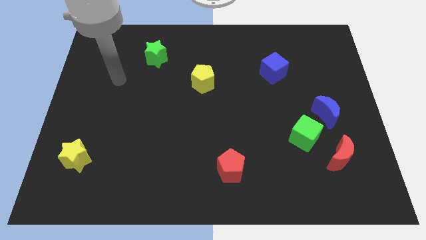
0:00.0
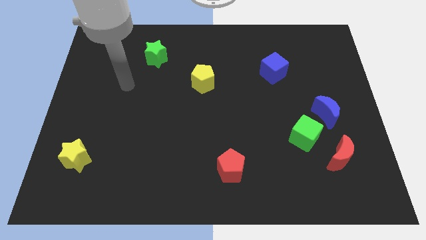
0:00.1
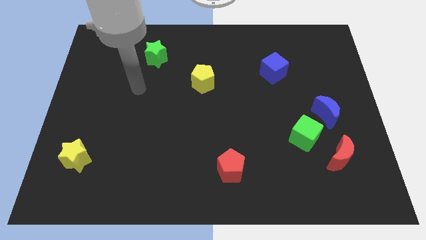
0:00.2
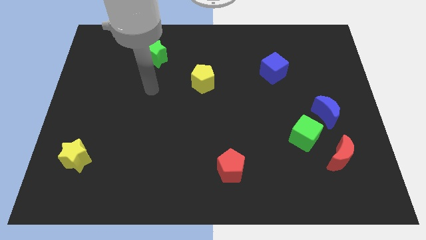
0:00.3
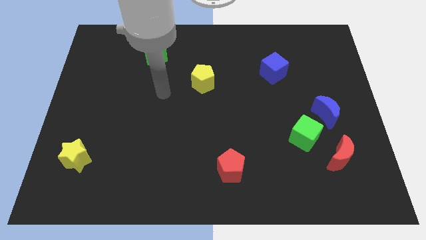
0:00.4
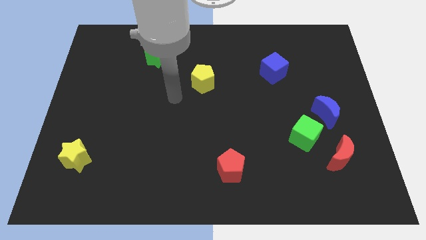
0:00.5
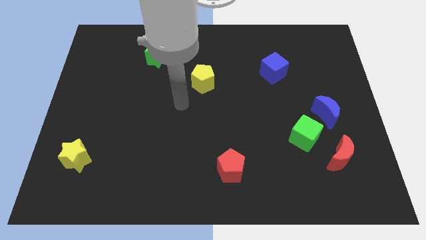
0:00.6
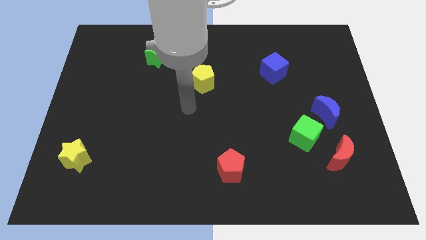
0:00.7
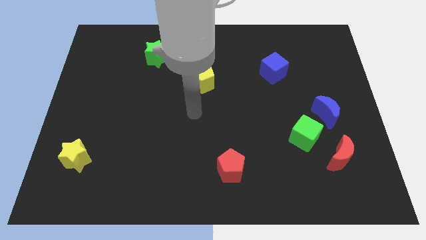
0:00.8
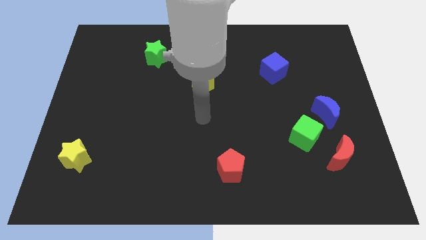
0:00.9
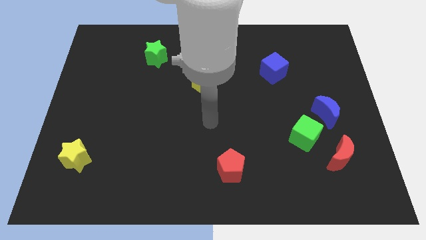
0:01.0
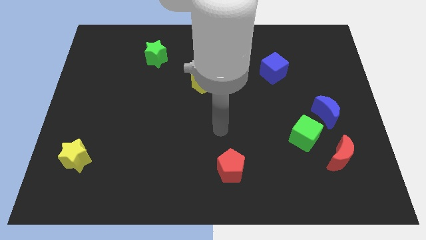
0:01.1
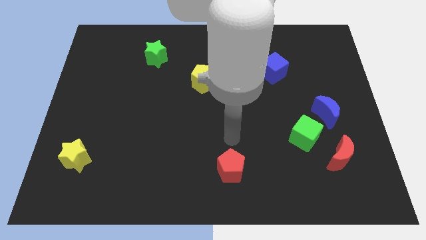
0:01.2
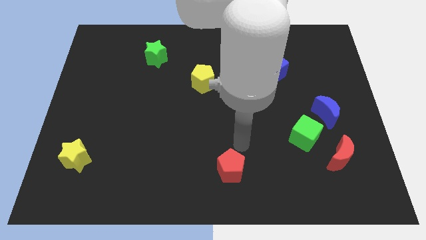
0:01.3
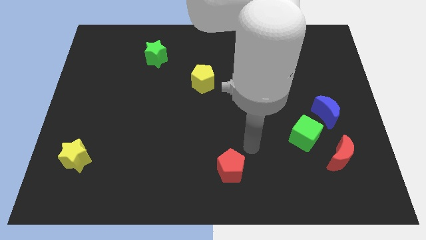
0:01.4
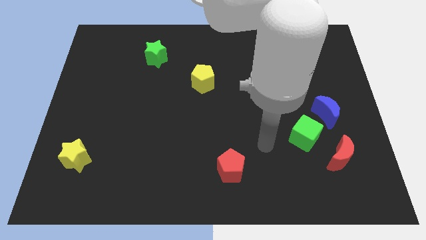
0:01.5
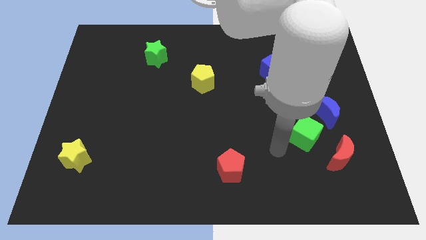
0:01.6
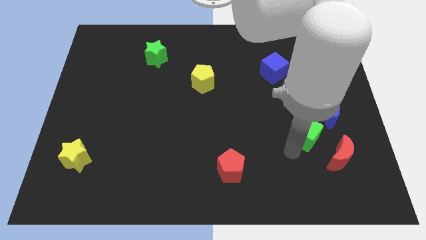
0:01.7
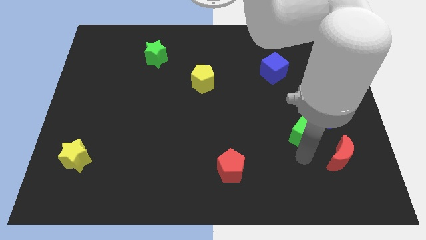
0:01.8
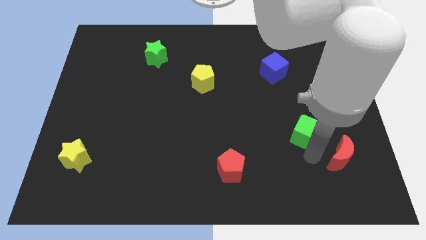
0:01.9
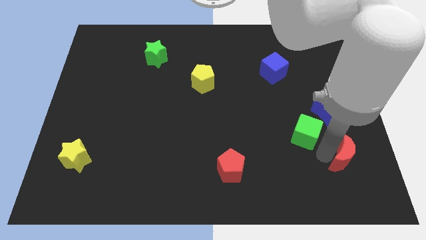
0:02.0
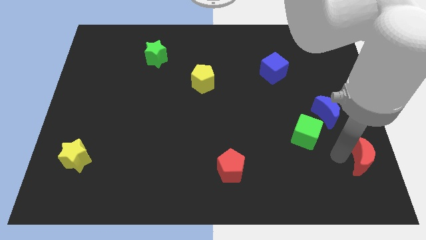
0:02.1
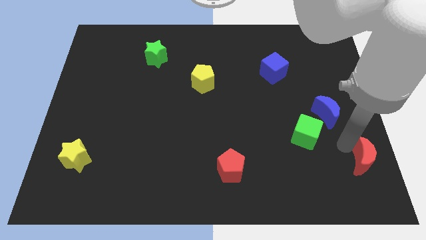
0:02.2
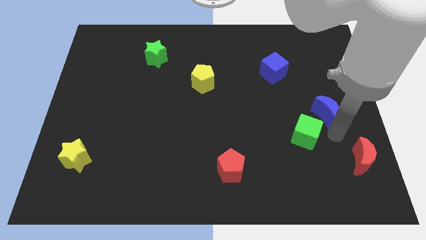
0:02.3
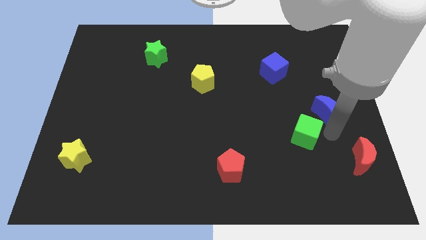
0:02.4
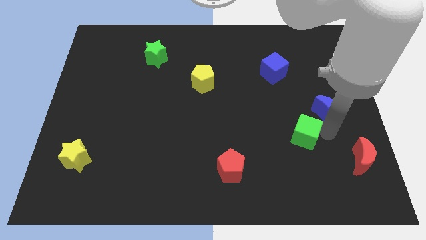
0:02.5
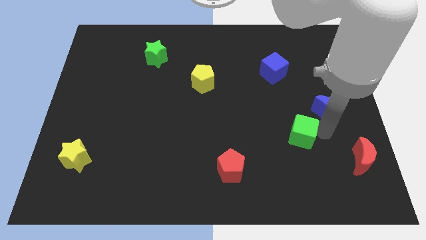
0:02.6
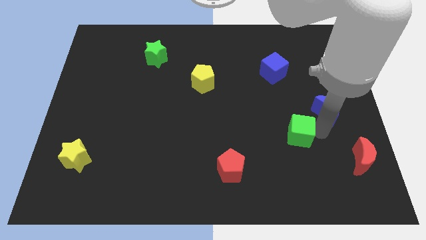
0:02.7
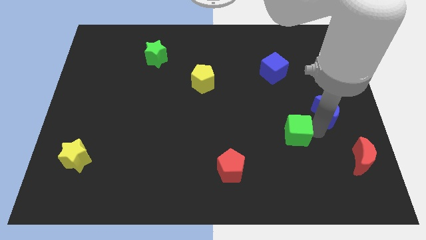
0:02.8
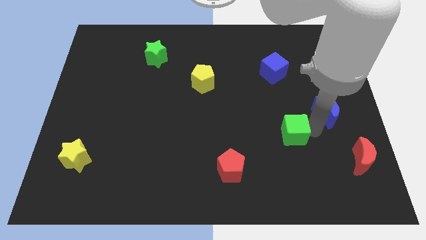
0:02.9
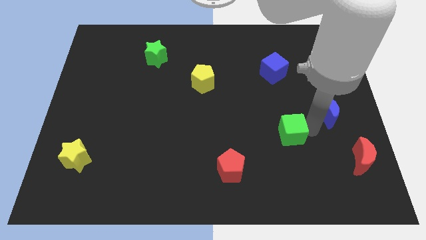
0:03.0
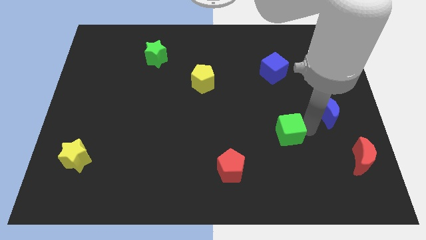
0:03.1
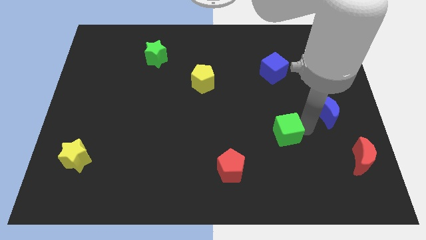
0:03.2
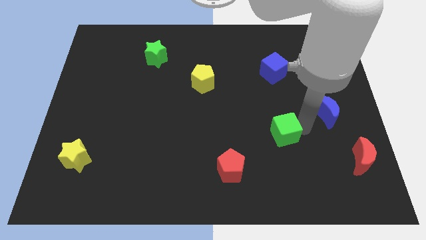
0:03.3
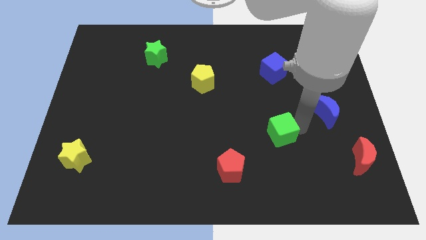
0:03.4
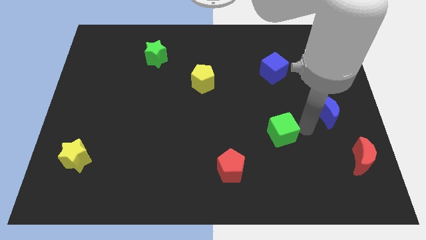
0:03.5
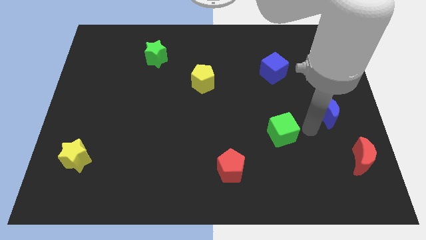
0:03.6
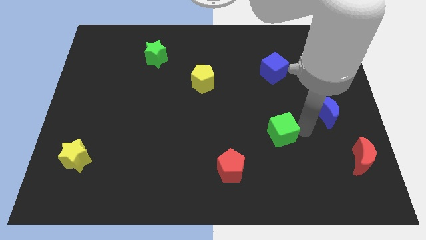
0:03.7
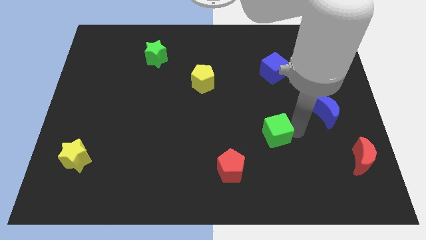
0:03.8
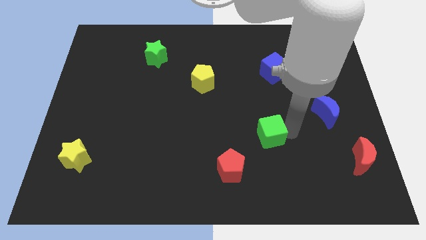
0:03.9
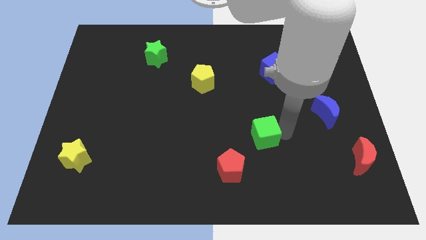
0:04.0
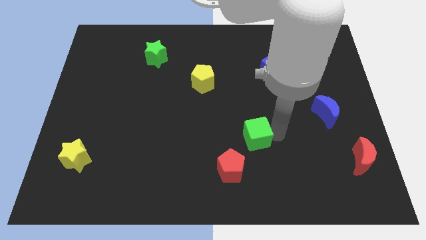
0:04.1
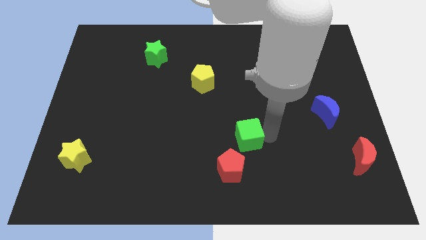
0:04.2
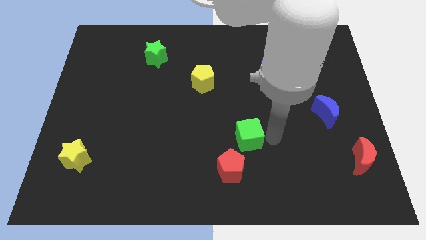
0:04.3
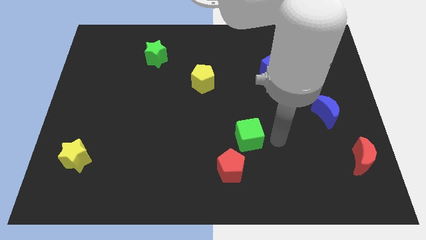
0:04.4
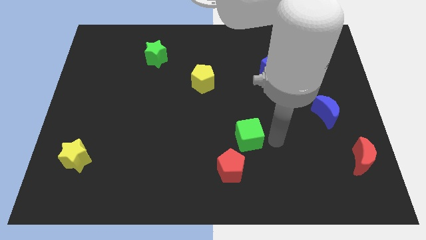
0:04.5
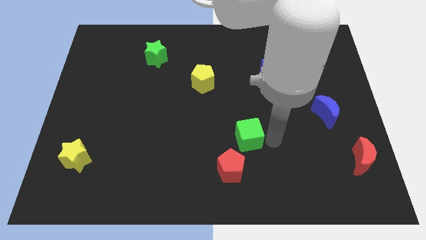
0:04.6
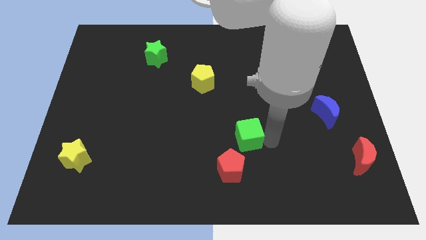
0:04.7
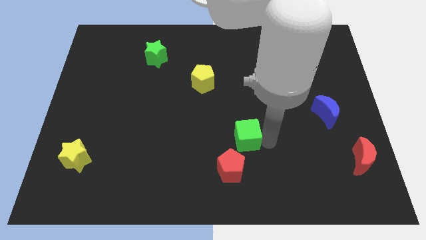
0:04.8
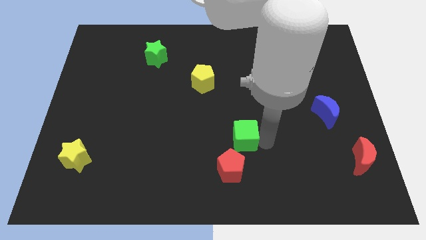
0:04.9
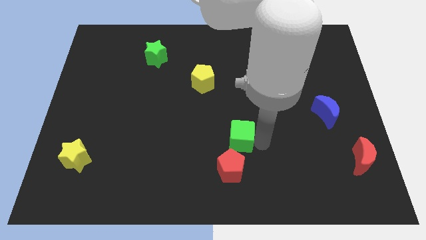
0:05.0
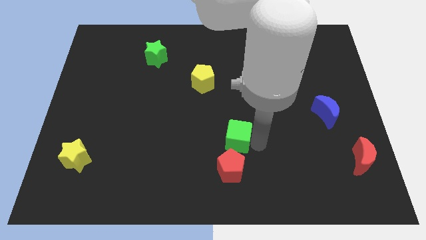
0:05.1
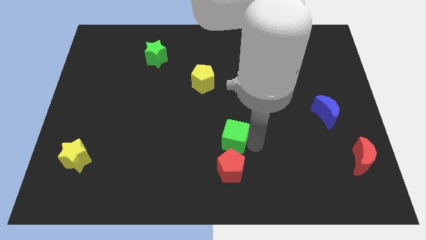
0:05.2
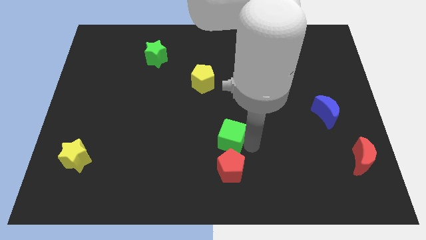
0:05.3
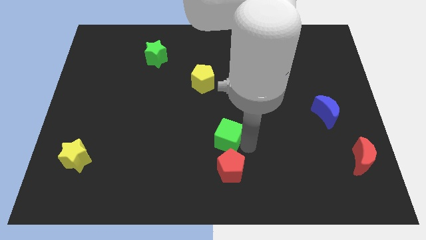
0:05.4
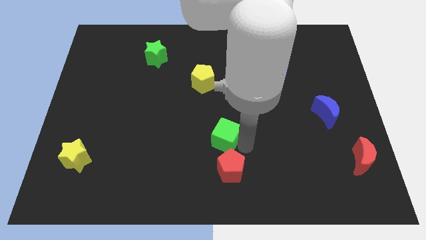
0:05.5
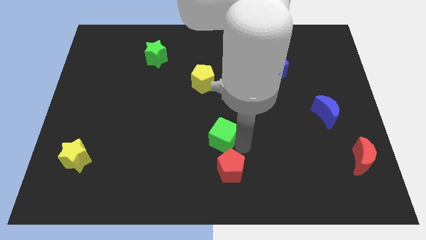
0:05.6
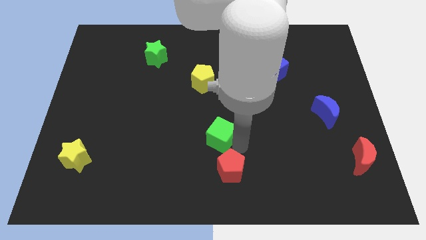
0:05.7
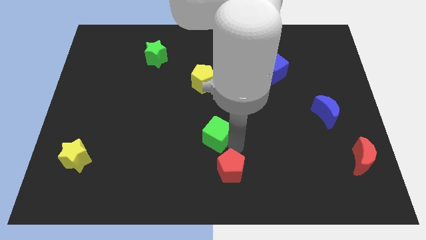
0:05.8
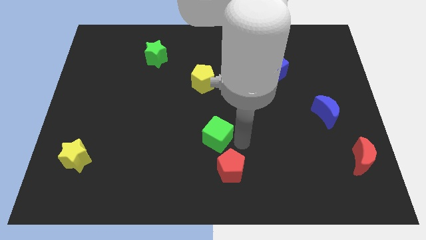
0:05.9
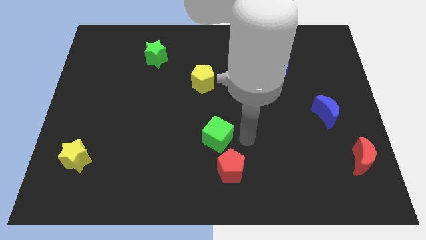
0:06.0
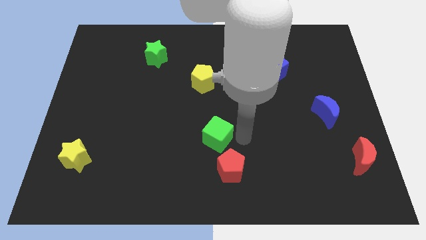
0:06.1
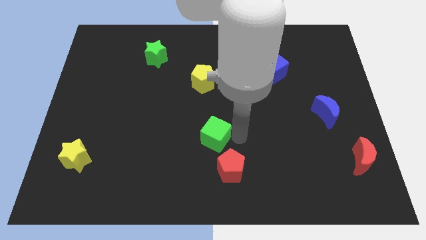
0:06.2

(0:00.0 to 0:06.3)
move the green cube to the left

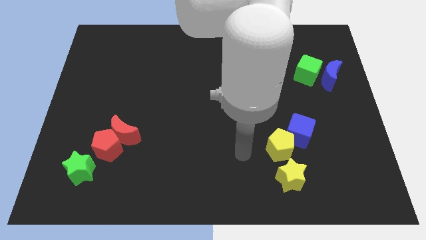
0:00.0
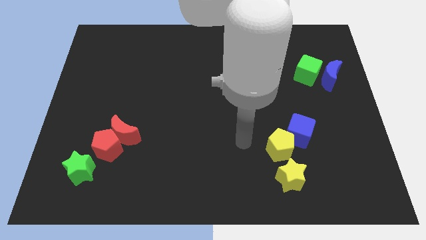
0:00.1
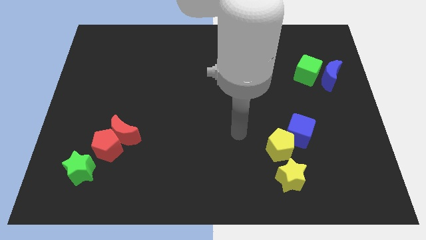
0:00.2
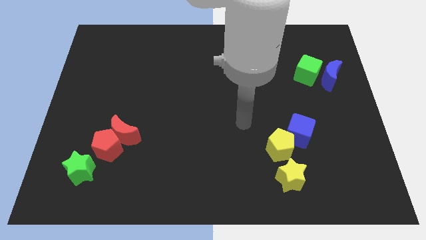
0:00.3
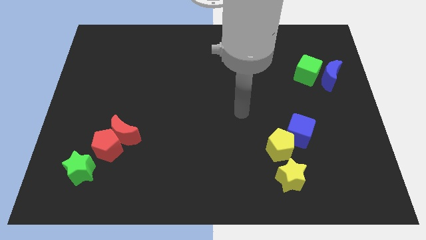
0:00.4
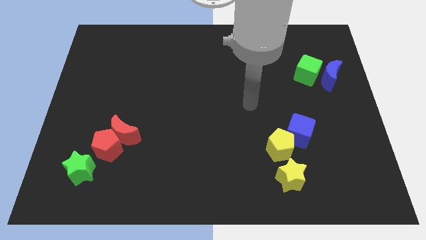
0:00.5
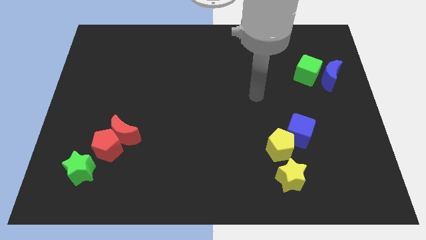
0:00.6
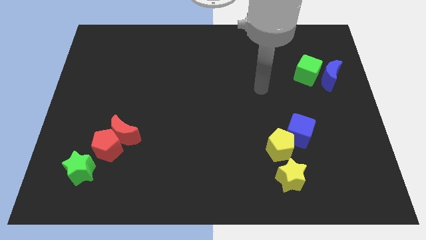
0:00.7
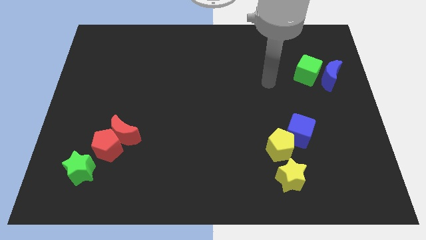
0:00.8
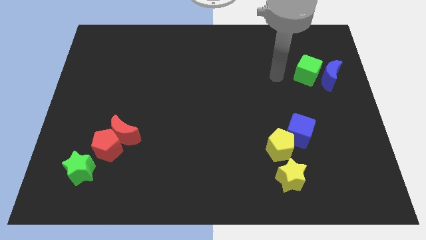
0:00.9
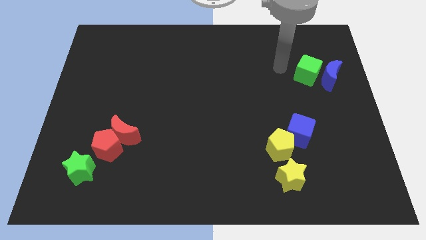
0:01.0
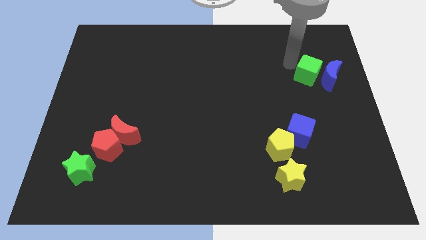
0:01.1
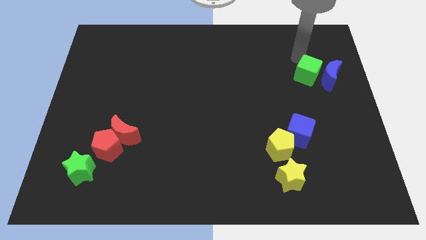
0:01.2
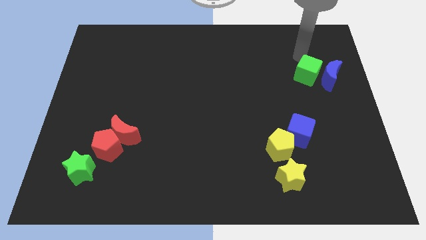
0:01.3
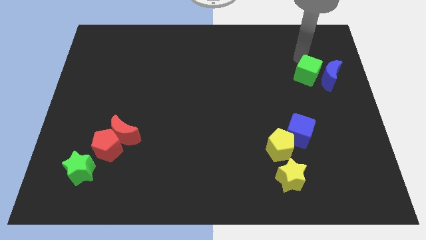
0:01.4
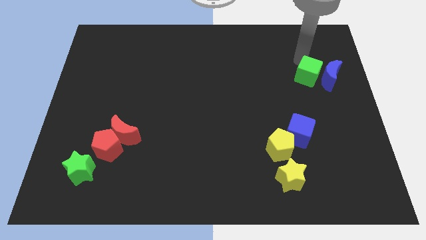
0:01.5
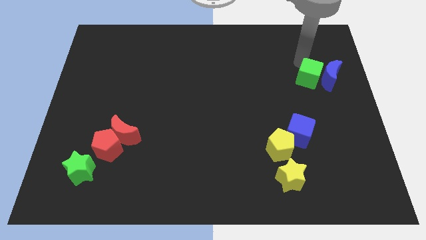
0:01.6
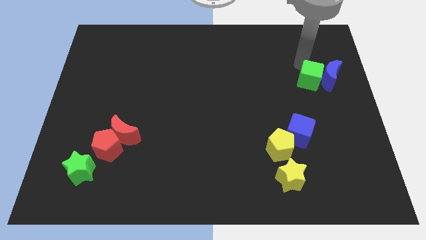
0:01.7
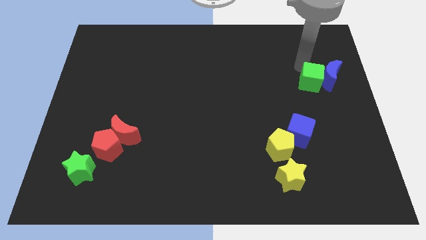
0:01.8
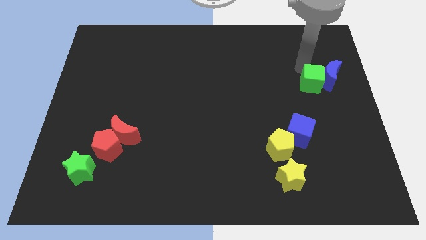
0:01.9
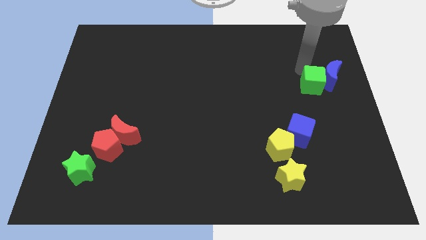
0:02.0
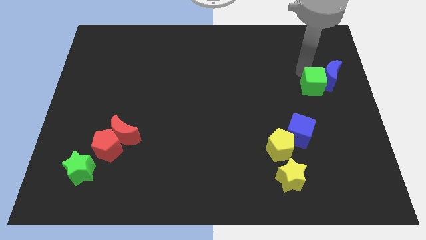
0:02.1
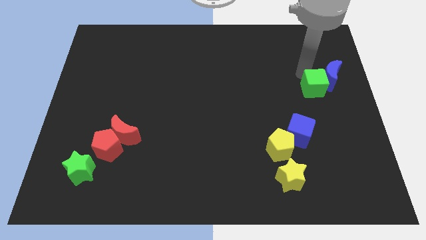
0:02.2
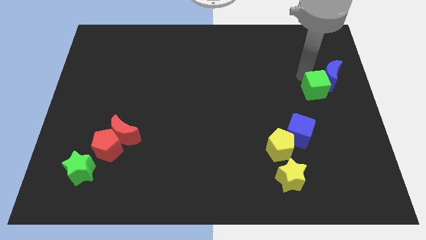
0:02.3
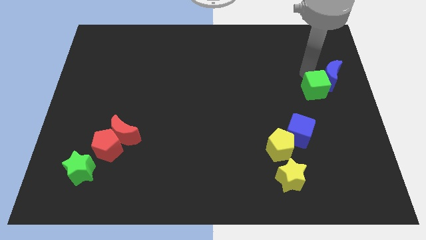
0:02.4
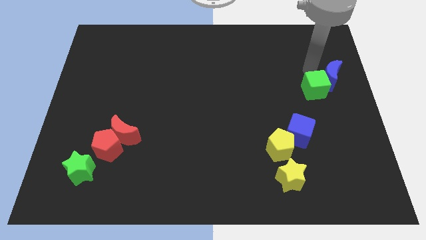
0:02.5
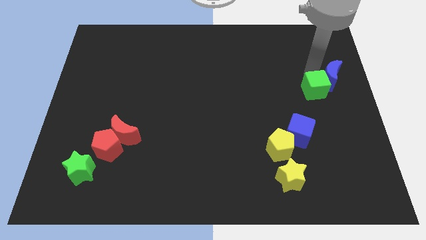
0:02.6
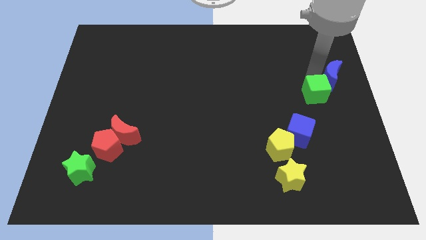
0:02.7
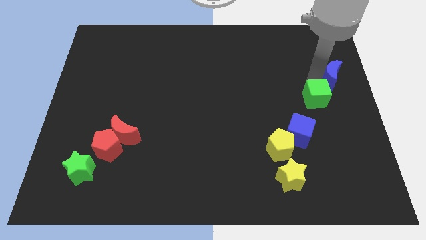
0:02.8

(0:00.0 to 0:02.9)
push the green cube downwards somewhat
